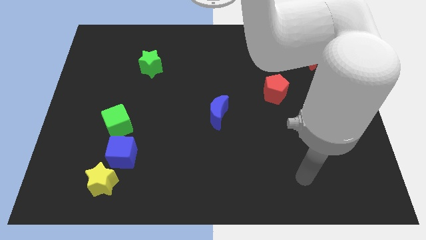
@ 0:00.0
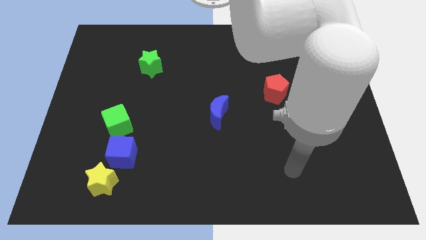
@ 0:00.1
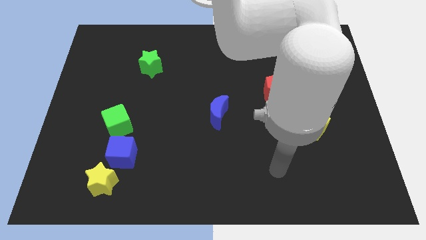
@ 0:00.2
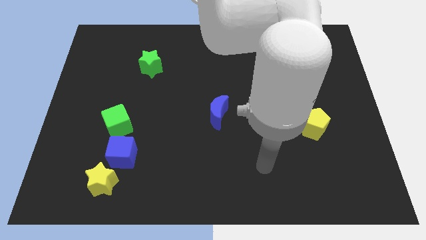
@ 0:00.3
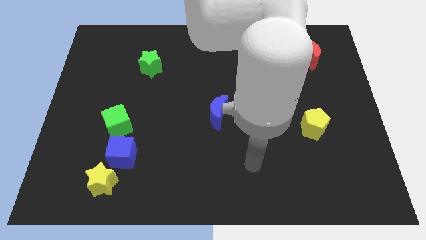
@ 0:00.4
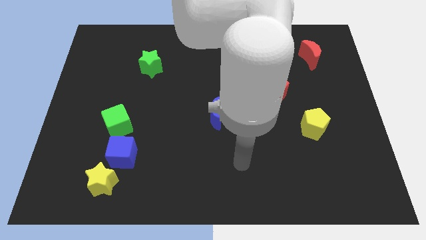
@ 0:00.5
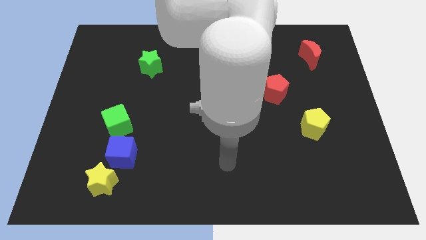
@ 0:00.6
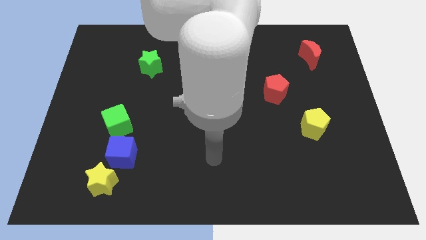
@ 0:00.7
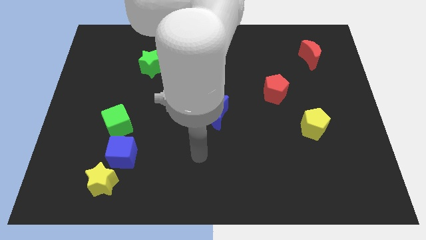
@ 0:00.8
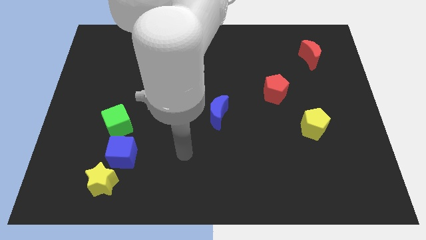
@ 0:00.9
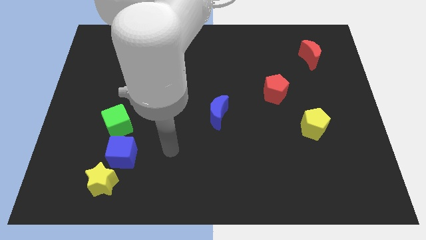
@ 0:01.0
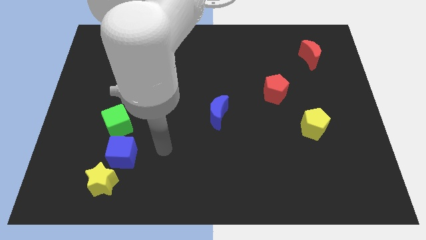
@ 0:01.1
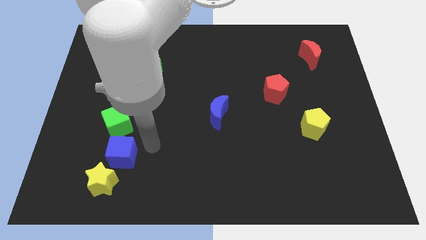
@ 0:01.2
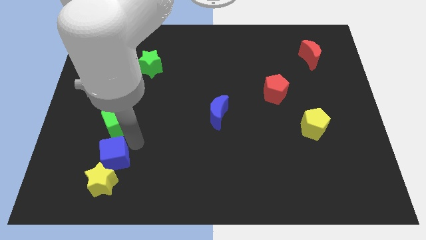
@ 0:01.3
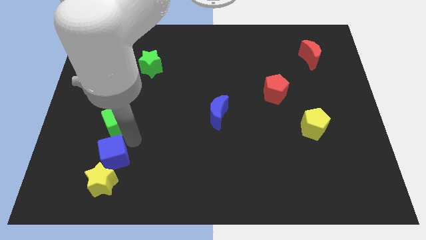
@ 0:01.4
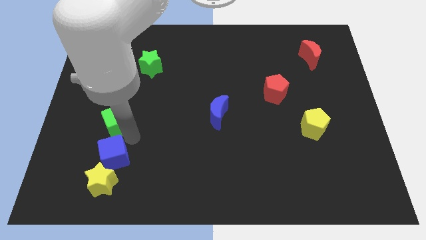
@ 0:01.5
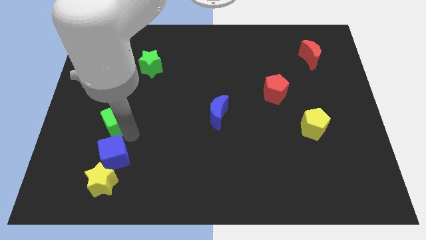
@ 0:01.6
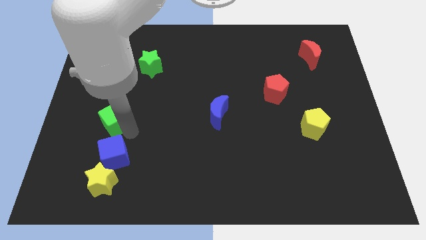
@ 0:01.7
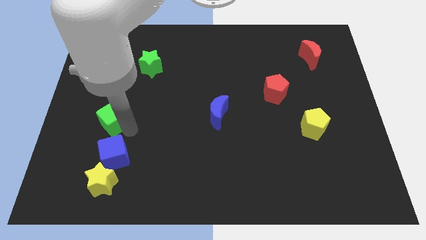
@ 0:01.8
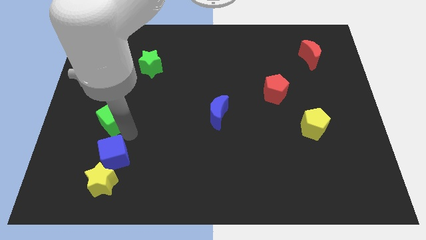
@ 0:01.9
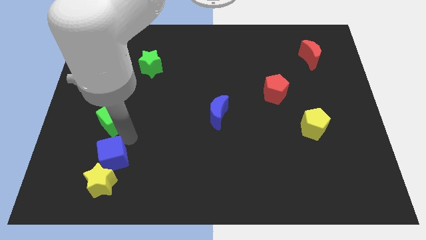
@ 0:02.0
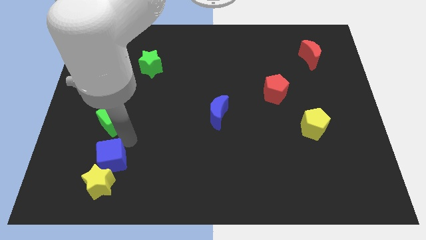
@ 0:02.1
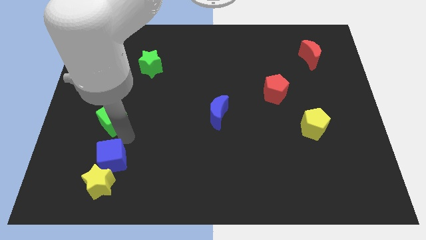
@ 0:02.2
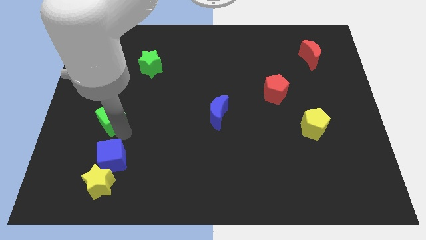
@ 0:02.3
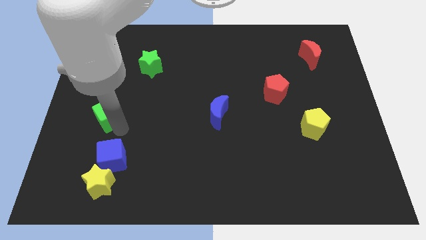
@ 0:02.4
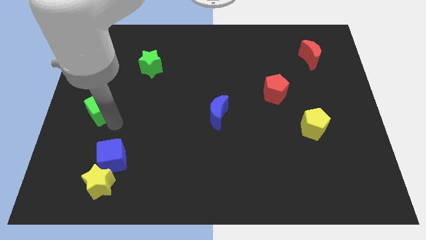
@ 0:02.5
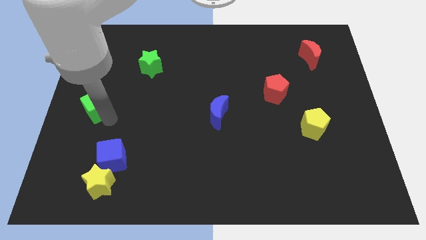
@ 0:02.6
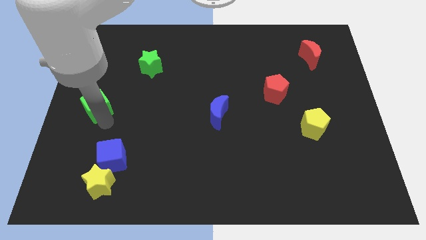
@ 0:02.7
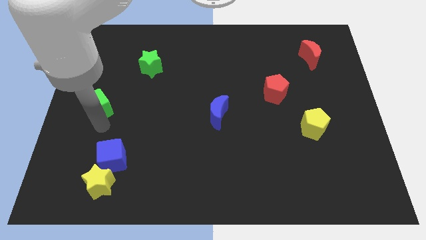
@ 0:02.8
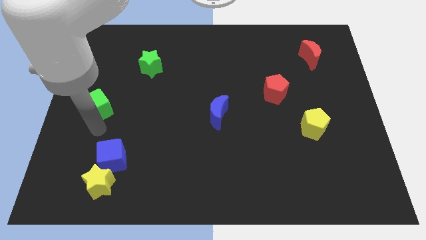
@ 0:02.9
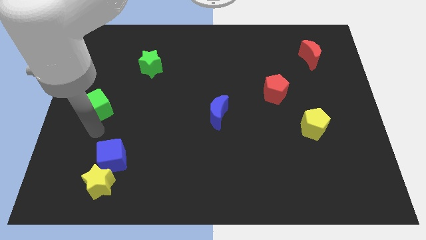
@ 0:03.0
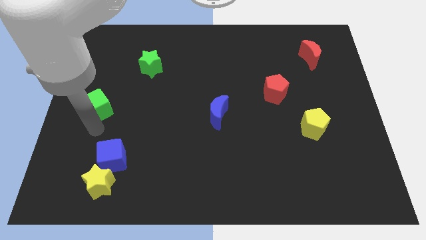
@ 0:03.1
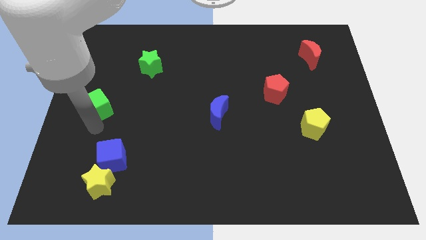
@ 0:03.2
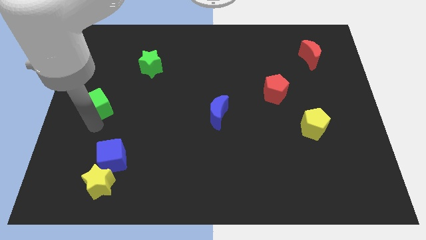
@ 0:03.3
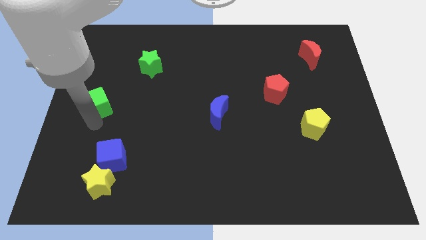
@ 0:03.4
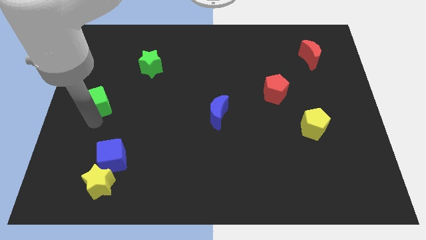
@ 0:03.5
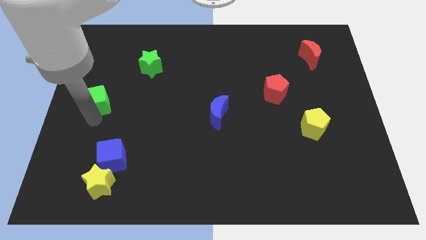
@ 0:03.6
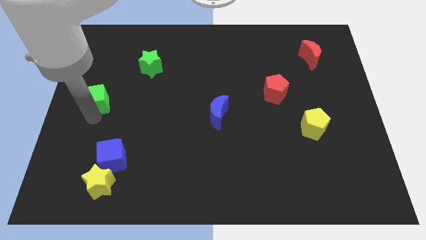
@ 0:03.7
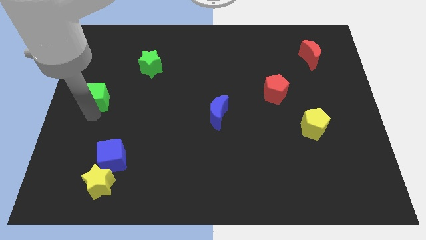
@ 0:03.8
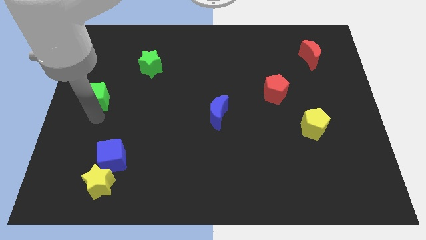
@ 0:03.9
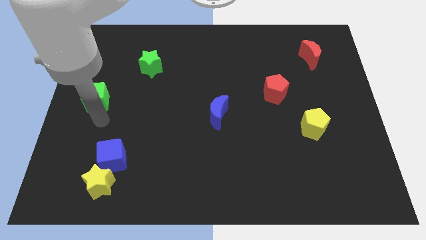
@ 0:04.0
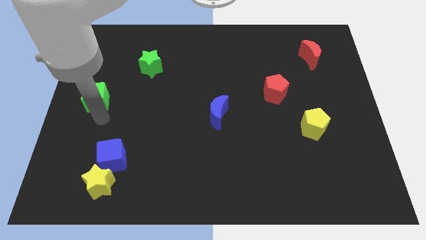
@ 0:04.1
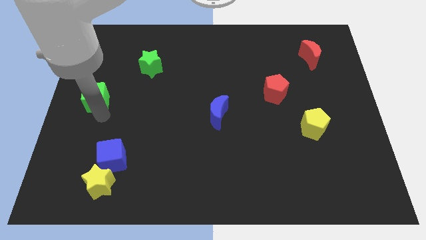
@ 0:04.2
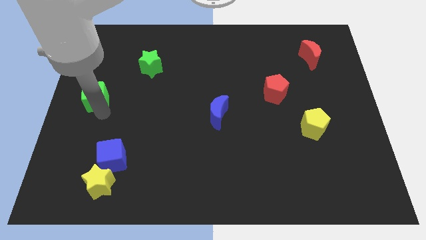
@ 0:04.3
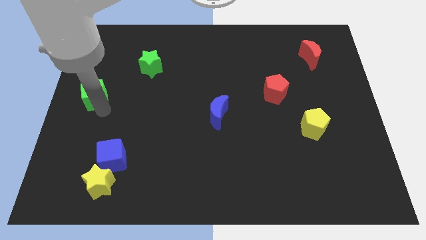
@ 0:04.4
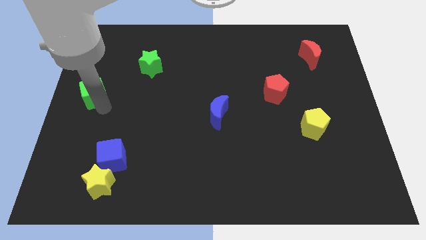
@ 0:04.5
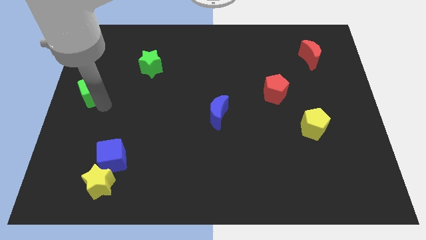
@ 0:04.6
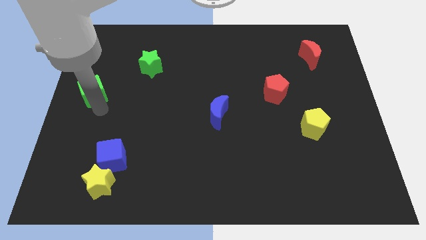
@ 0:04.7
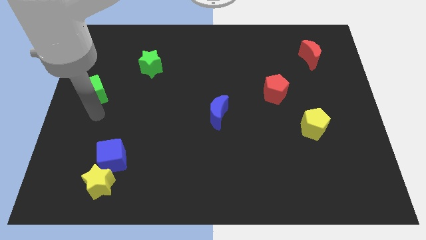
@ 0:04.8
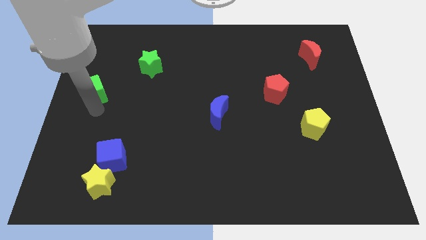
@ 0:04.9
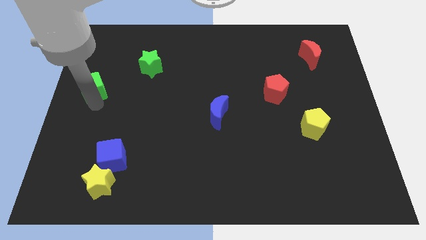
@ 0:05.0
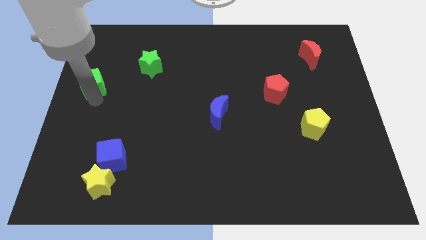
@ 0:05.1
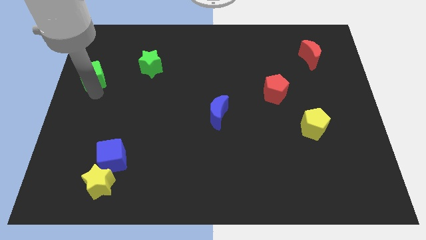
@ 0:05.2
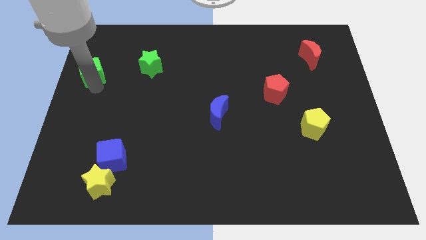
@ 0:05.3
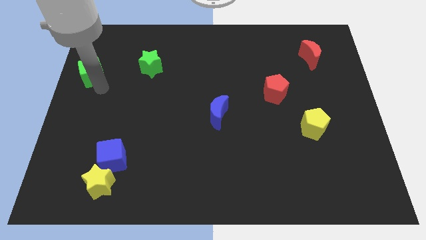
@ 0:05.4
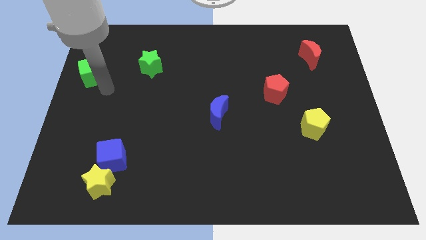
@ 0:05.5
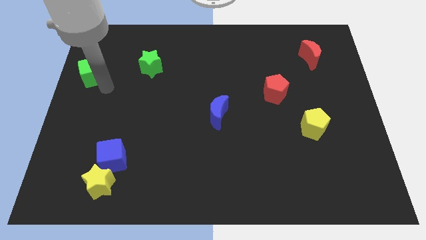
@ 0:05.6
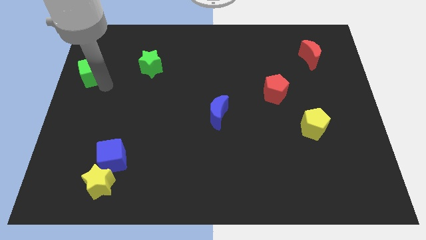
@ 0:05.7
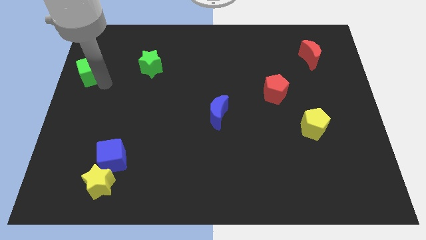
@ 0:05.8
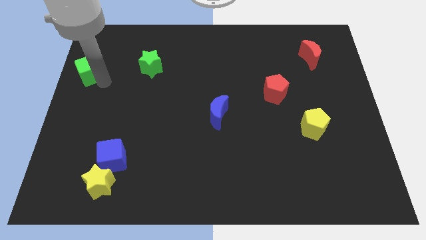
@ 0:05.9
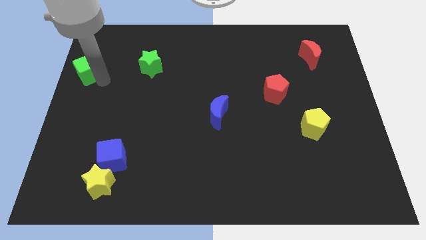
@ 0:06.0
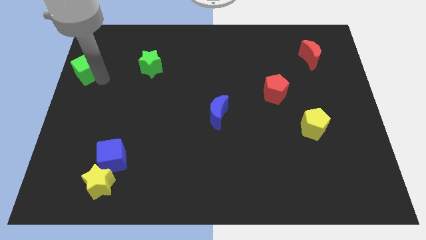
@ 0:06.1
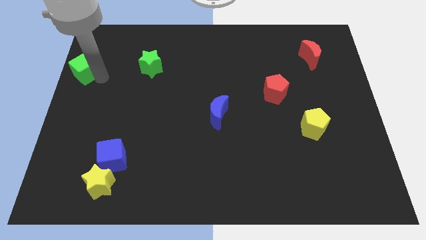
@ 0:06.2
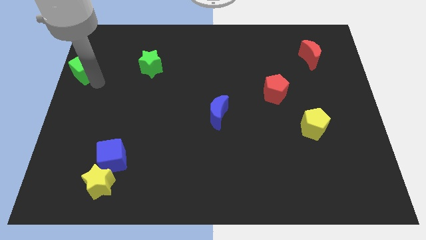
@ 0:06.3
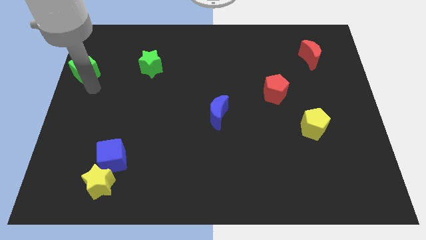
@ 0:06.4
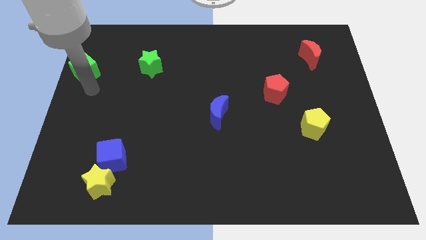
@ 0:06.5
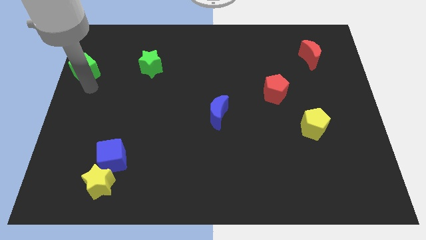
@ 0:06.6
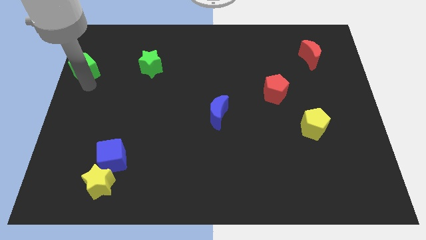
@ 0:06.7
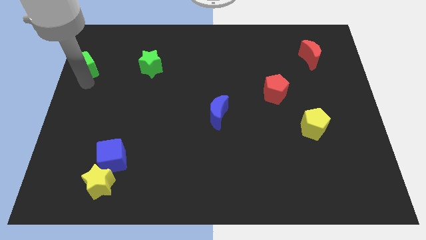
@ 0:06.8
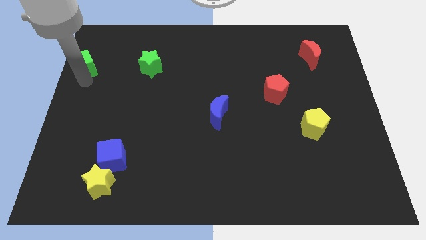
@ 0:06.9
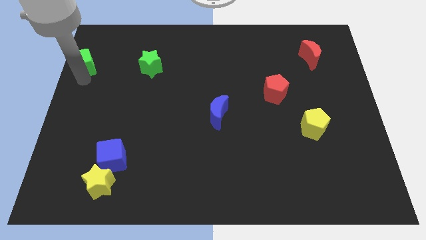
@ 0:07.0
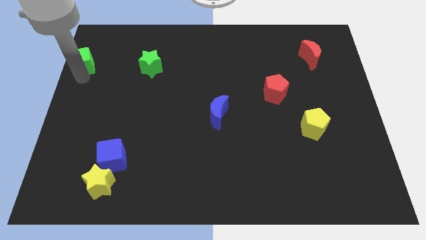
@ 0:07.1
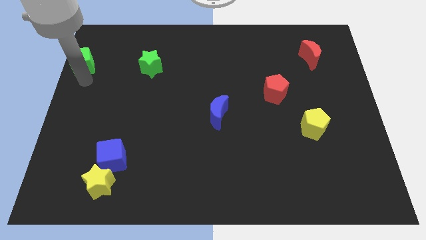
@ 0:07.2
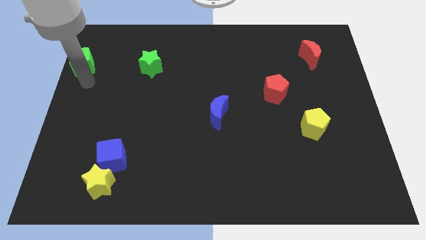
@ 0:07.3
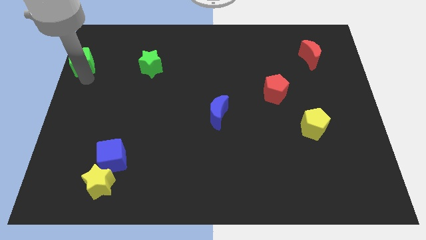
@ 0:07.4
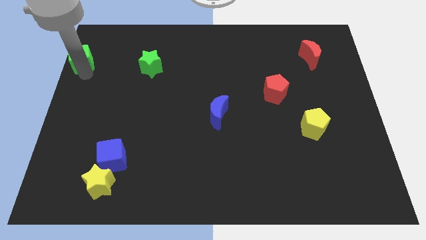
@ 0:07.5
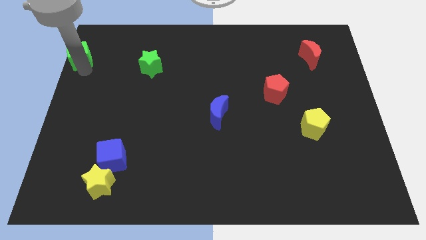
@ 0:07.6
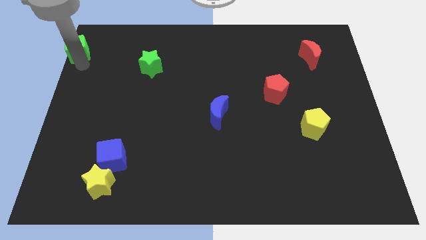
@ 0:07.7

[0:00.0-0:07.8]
push the green cube to the upper left corner
